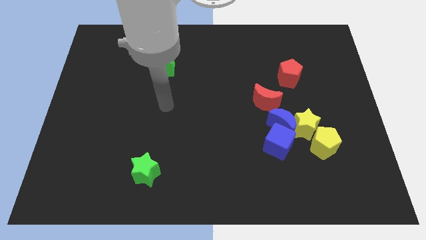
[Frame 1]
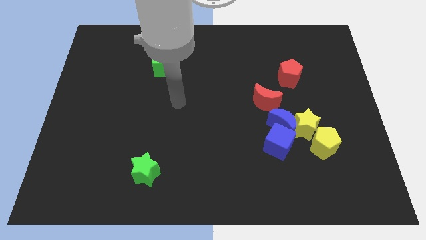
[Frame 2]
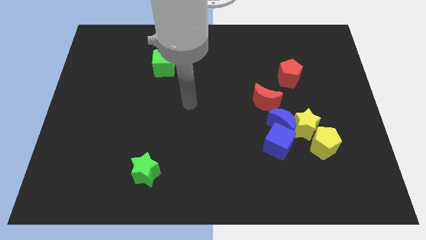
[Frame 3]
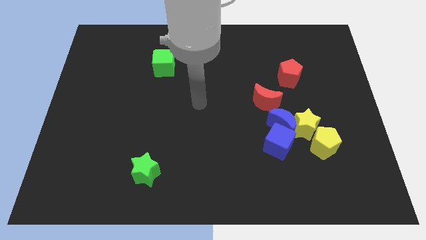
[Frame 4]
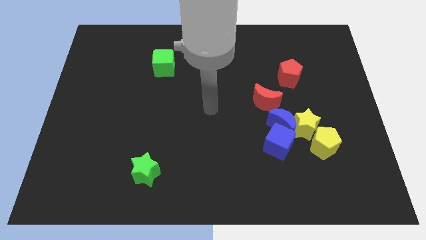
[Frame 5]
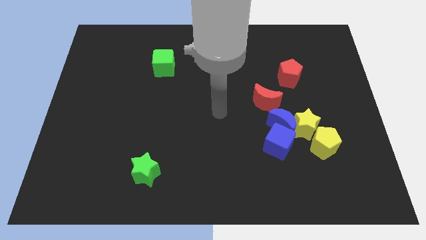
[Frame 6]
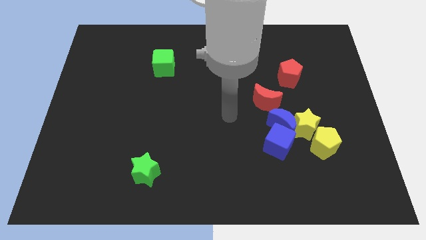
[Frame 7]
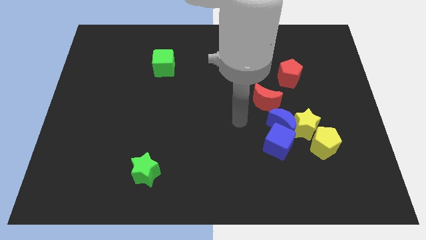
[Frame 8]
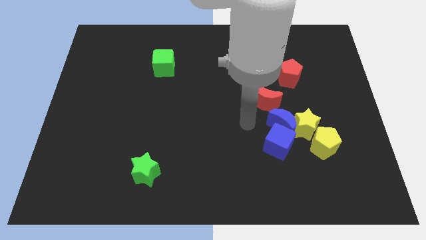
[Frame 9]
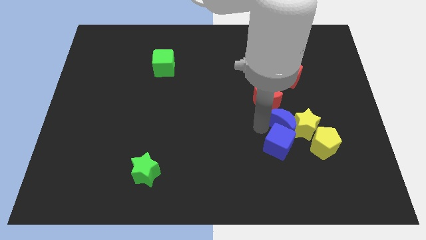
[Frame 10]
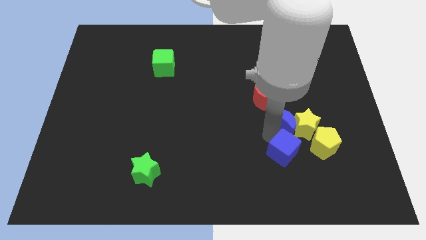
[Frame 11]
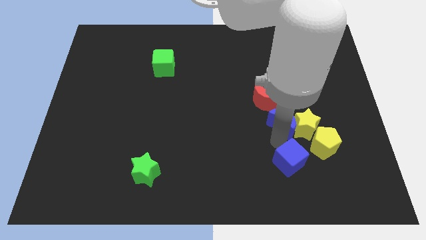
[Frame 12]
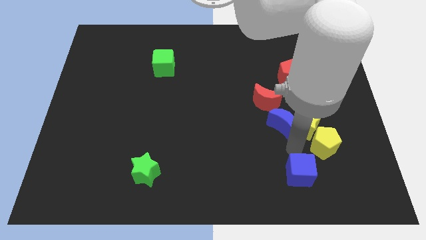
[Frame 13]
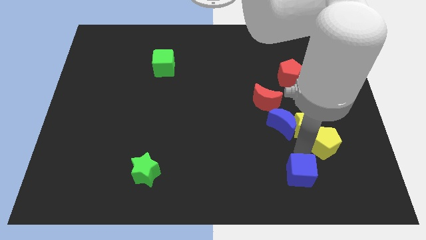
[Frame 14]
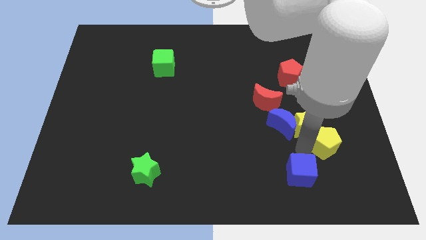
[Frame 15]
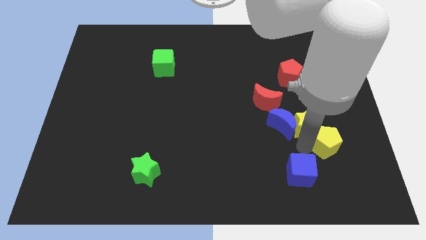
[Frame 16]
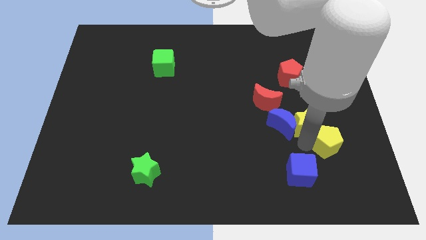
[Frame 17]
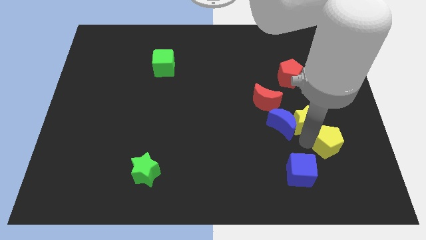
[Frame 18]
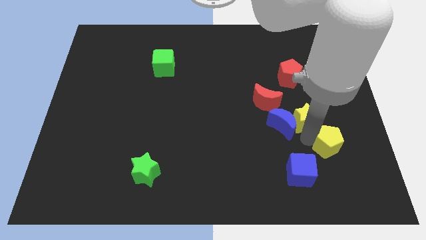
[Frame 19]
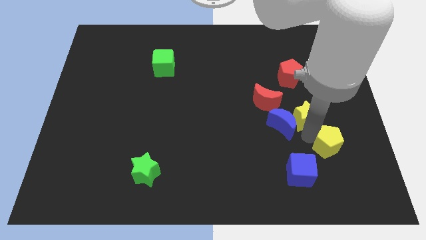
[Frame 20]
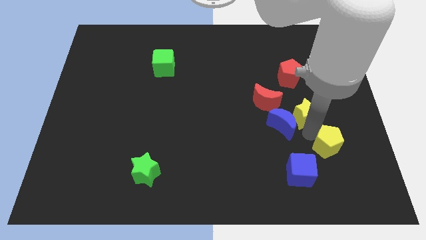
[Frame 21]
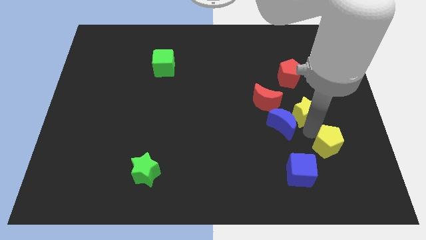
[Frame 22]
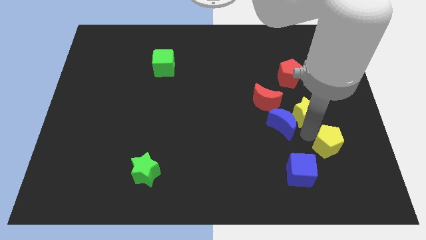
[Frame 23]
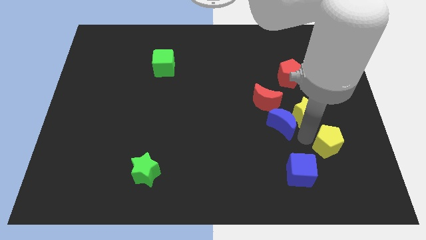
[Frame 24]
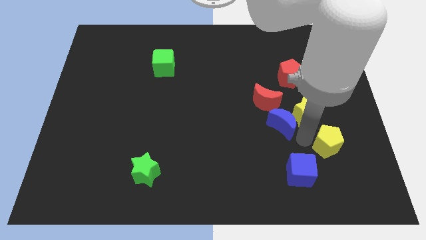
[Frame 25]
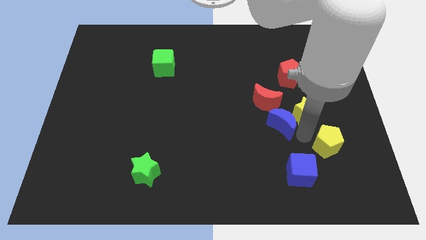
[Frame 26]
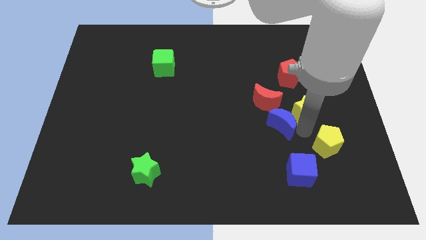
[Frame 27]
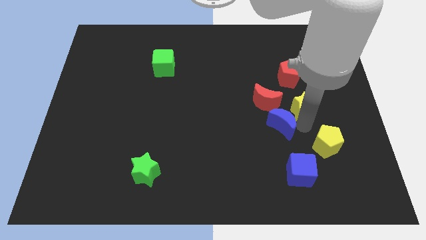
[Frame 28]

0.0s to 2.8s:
separate the yellow star from the group of blocks

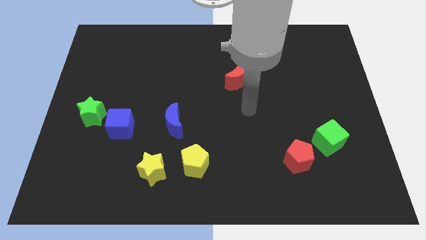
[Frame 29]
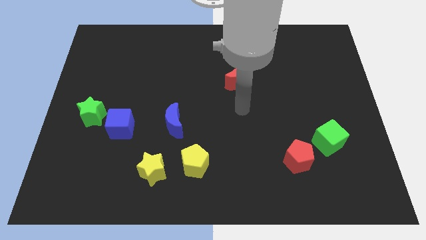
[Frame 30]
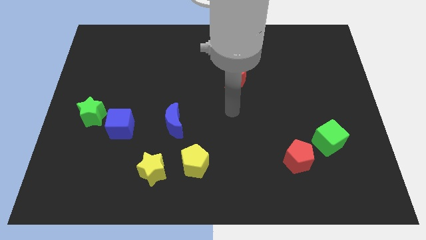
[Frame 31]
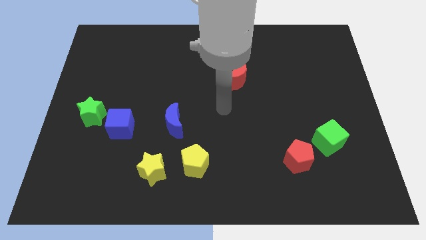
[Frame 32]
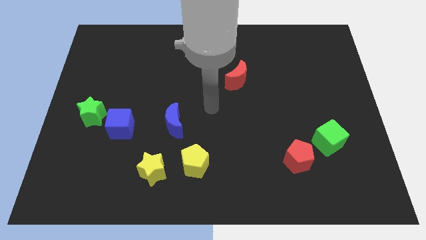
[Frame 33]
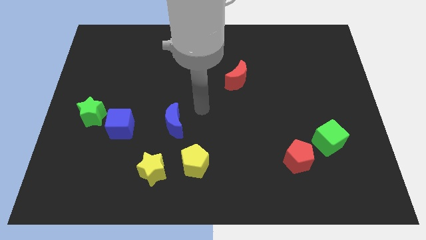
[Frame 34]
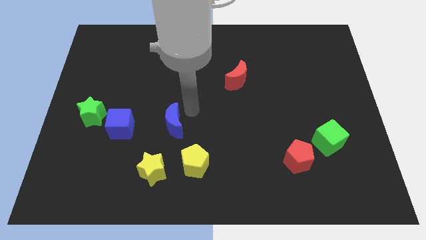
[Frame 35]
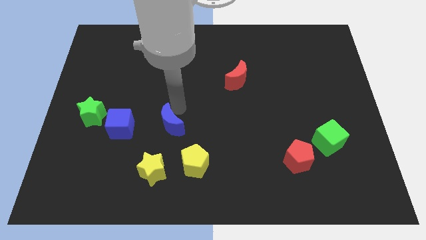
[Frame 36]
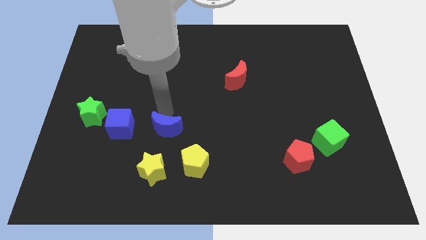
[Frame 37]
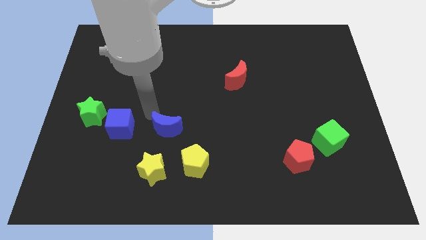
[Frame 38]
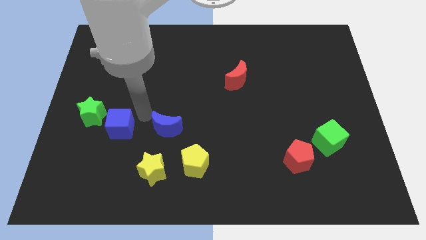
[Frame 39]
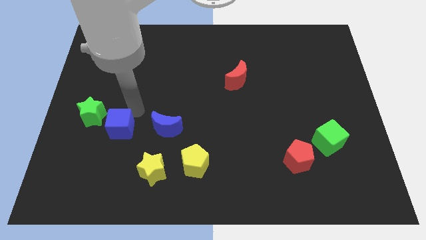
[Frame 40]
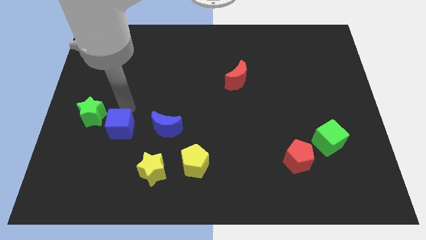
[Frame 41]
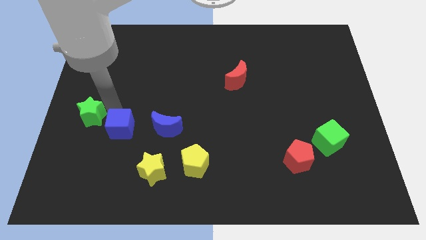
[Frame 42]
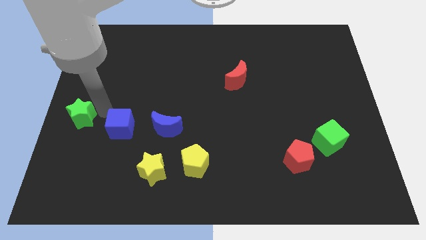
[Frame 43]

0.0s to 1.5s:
separate the blue cube from the green star

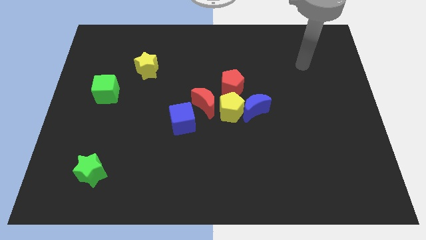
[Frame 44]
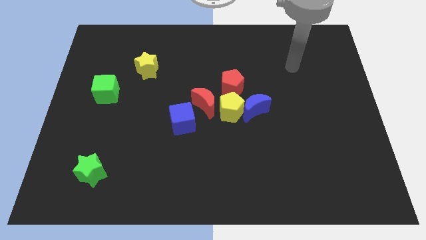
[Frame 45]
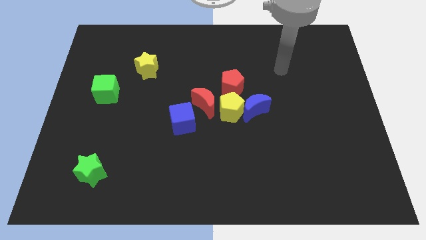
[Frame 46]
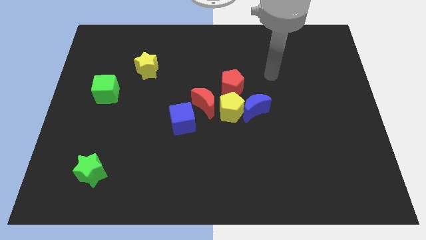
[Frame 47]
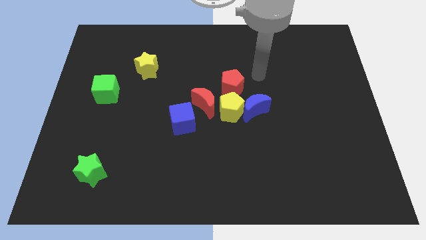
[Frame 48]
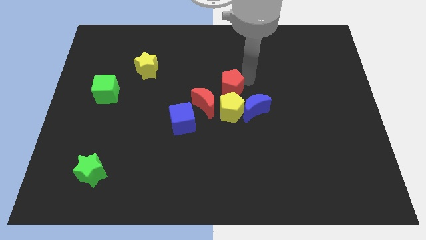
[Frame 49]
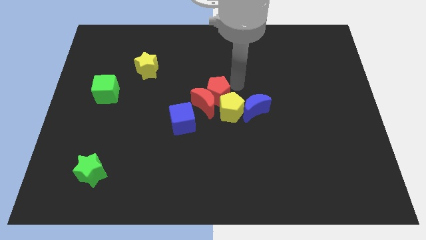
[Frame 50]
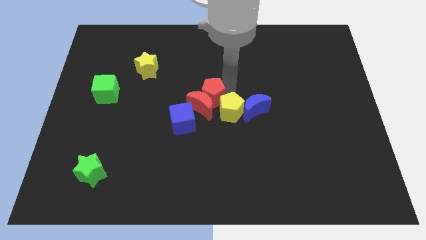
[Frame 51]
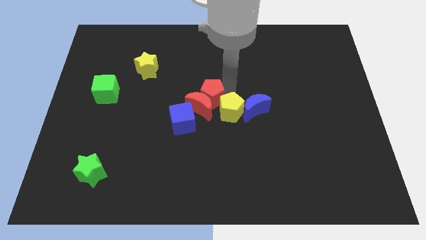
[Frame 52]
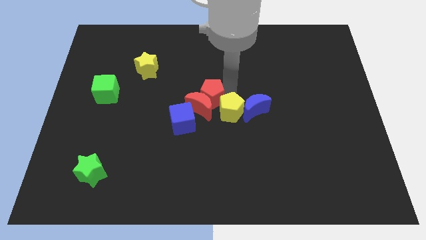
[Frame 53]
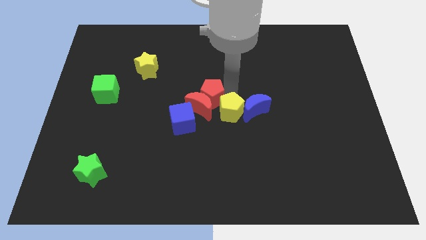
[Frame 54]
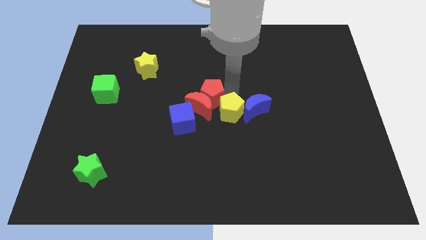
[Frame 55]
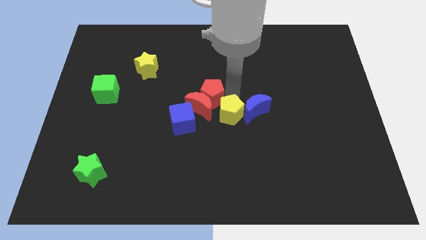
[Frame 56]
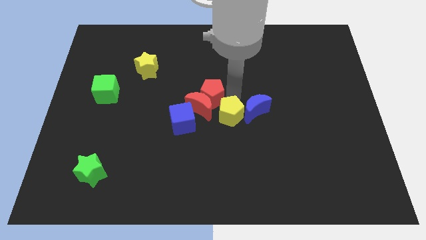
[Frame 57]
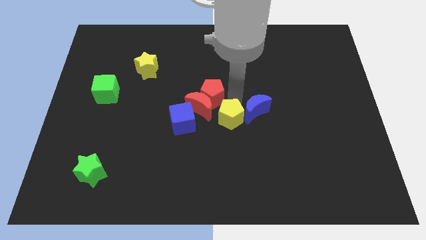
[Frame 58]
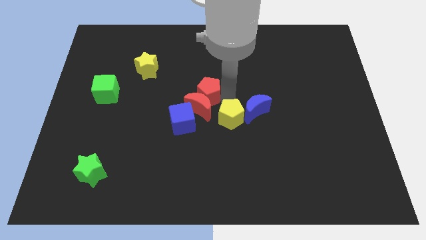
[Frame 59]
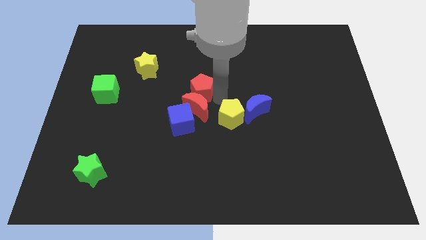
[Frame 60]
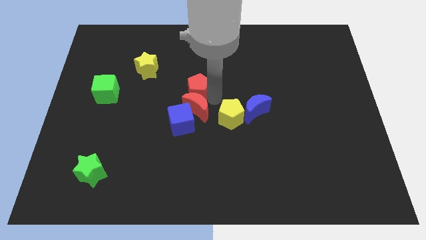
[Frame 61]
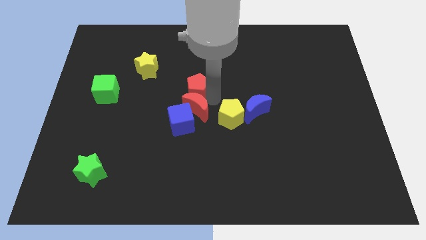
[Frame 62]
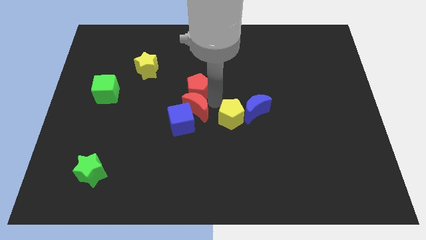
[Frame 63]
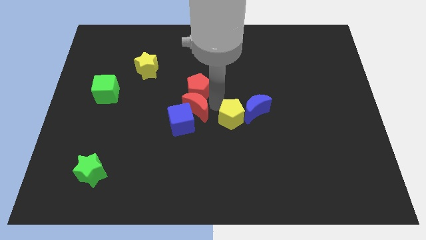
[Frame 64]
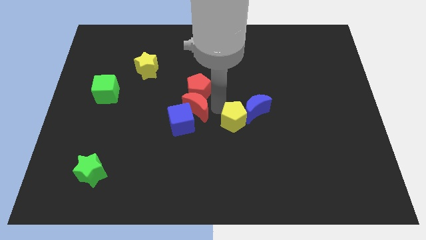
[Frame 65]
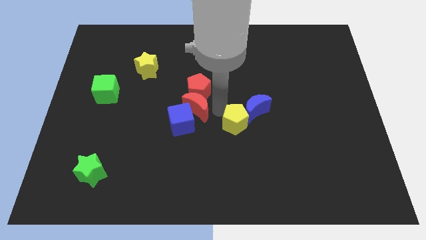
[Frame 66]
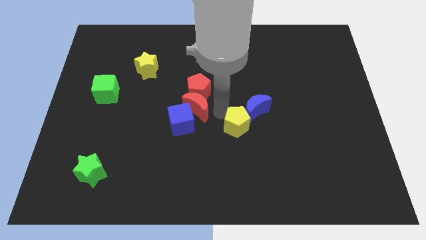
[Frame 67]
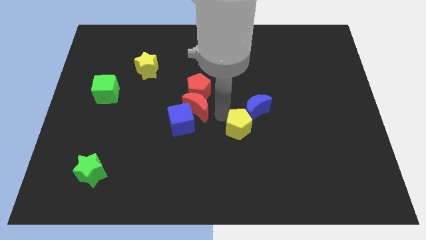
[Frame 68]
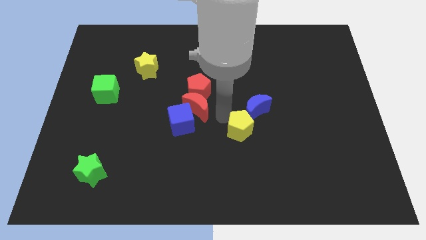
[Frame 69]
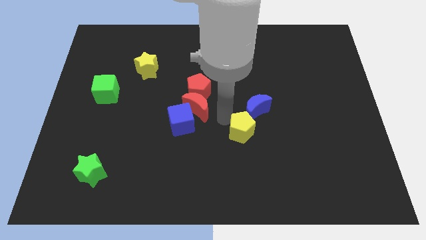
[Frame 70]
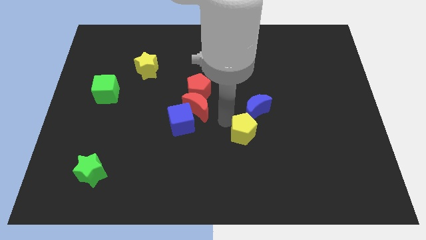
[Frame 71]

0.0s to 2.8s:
separate the yellow pentagon from the blue moon, red moon, and red pentagon

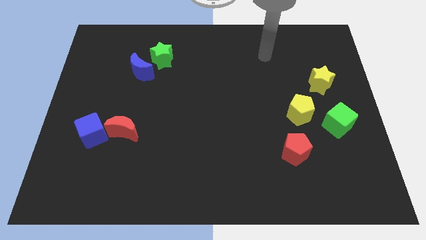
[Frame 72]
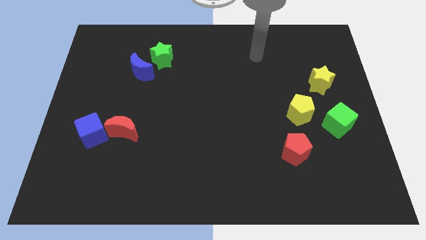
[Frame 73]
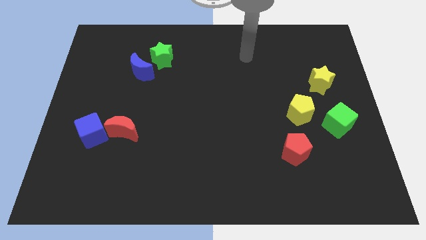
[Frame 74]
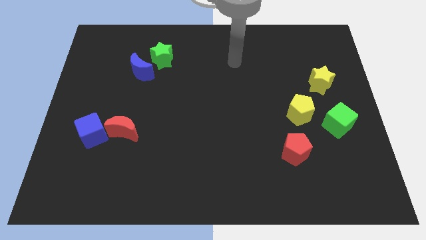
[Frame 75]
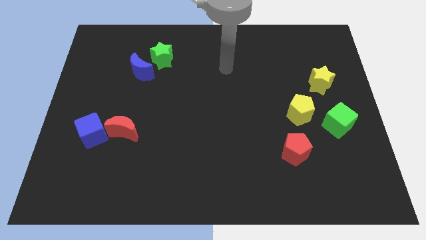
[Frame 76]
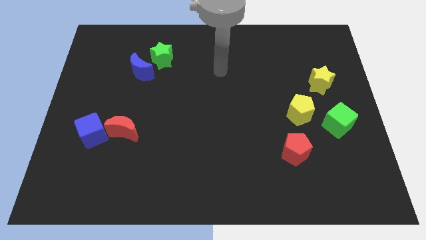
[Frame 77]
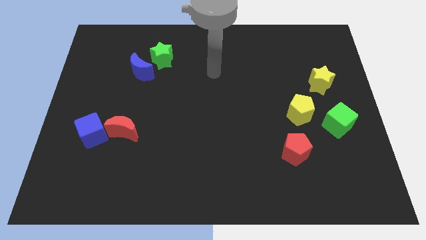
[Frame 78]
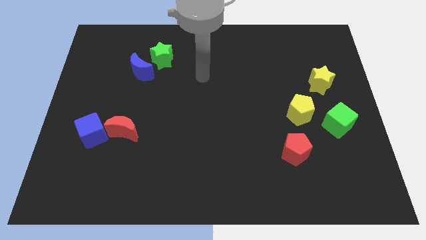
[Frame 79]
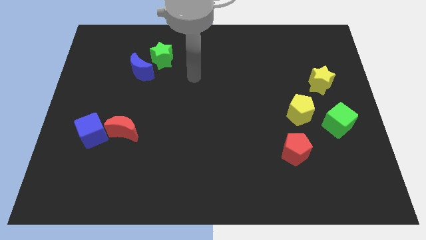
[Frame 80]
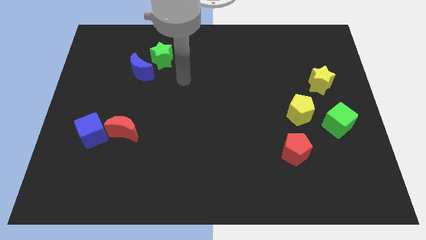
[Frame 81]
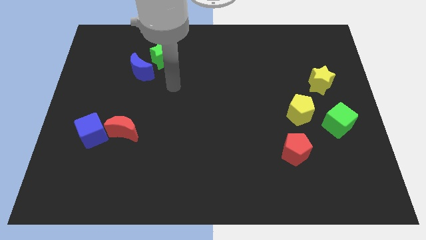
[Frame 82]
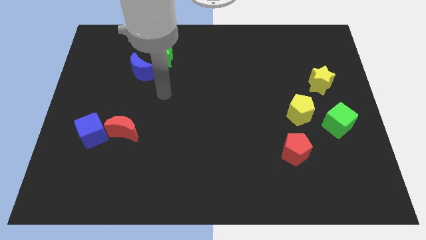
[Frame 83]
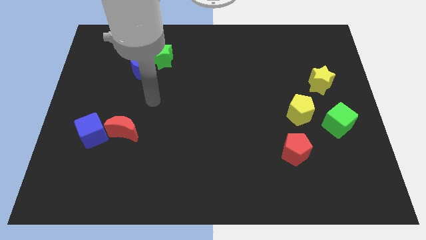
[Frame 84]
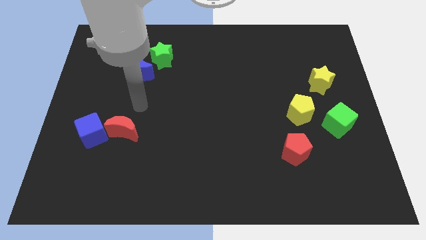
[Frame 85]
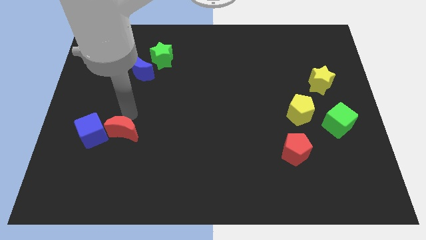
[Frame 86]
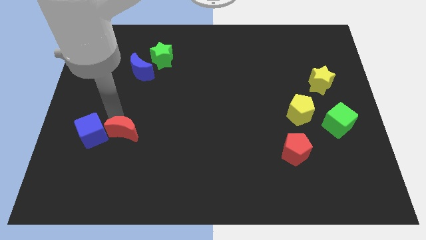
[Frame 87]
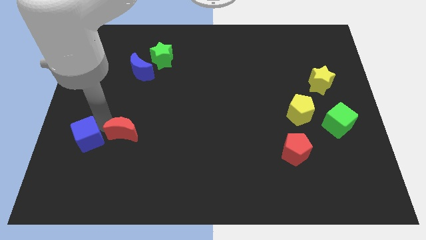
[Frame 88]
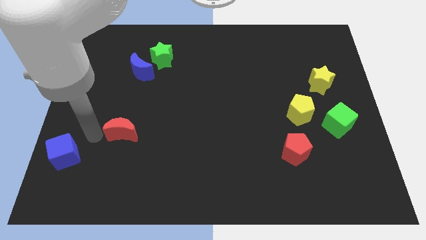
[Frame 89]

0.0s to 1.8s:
separate the red moon from the blue cube

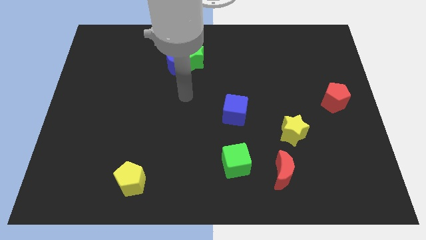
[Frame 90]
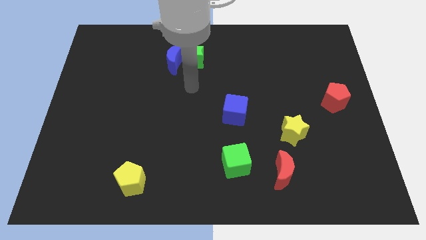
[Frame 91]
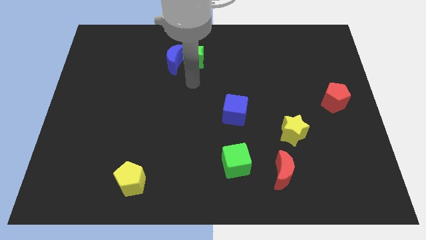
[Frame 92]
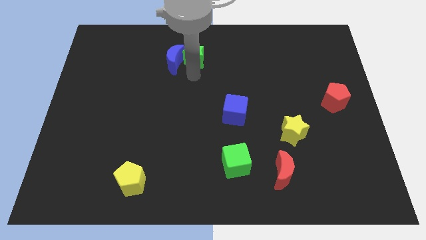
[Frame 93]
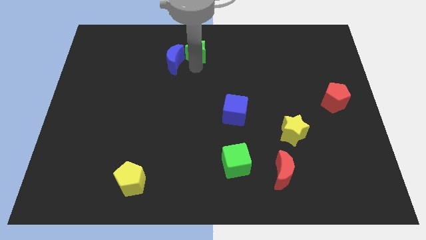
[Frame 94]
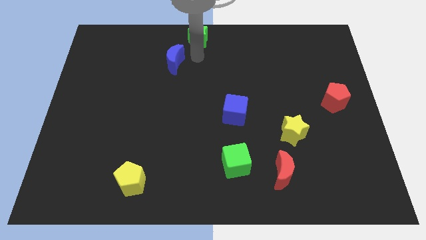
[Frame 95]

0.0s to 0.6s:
move the blue moon away from the green star
